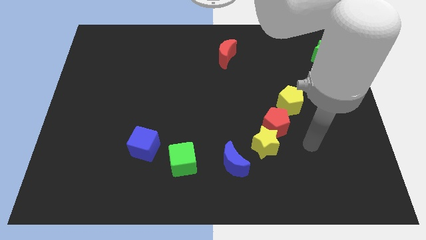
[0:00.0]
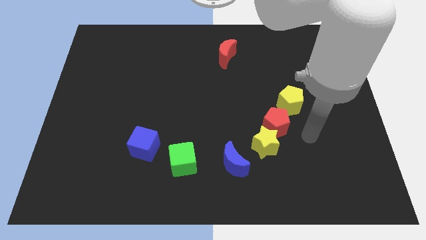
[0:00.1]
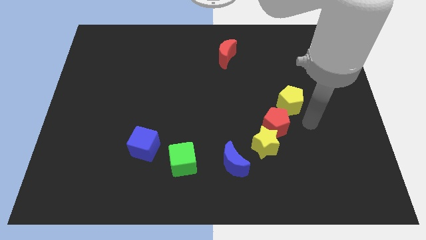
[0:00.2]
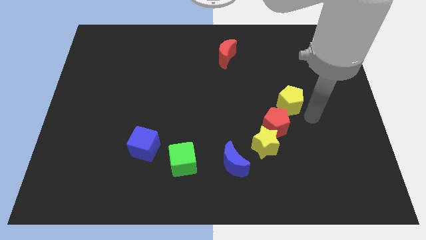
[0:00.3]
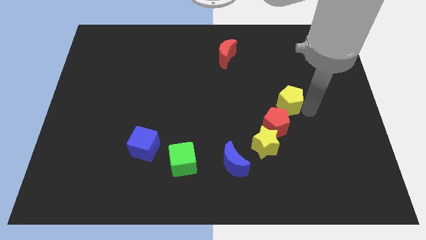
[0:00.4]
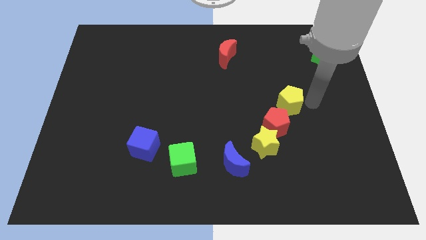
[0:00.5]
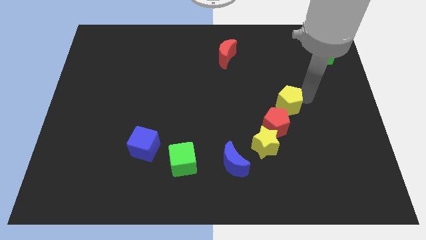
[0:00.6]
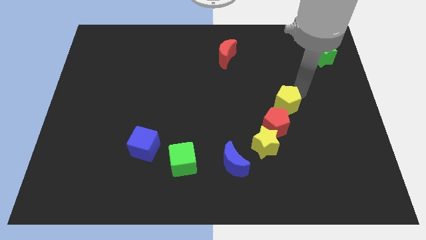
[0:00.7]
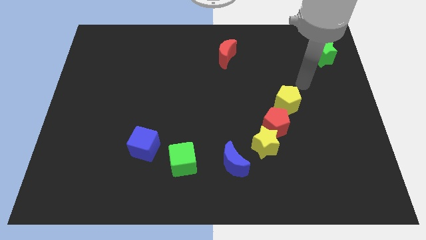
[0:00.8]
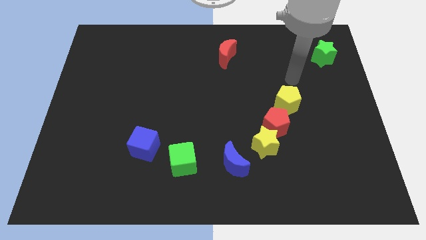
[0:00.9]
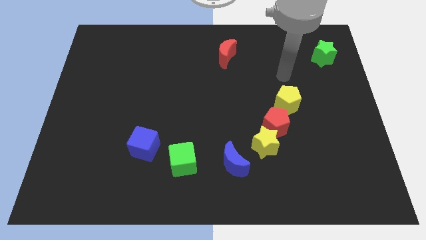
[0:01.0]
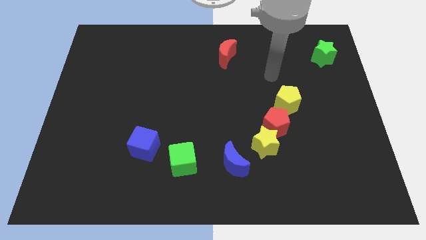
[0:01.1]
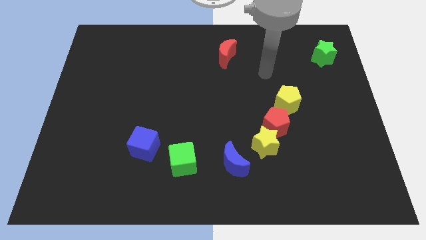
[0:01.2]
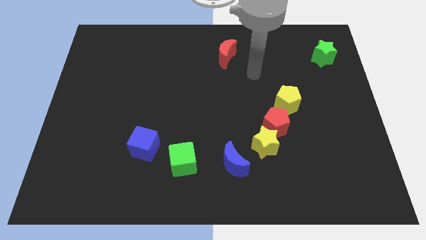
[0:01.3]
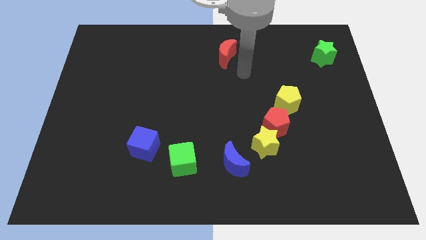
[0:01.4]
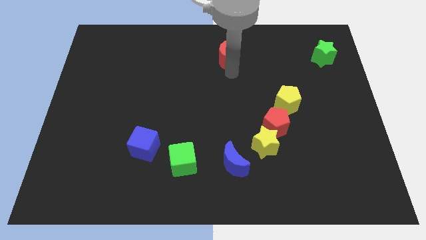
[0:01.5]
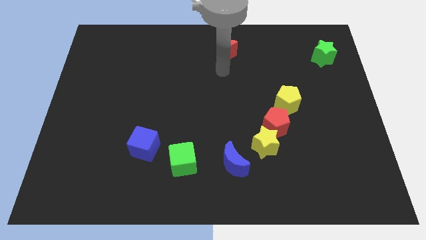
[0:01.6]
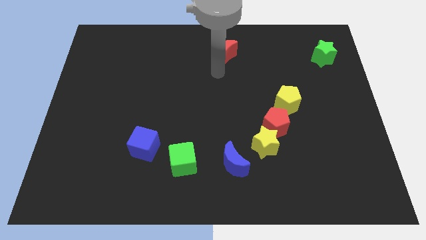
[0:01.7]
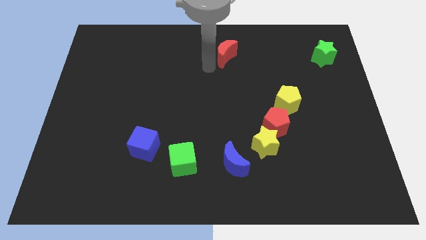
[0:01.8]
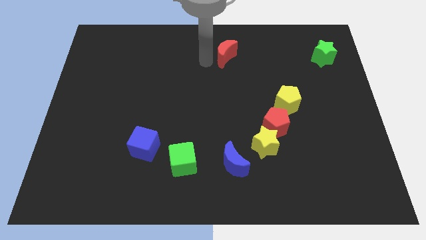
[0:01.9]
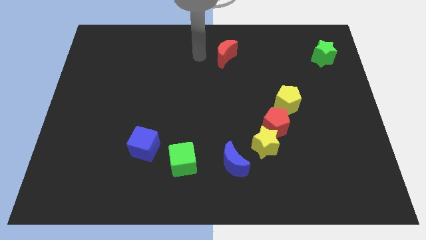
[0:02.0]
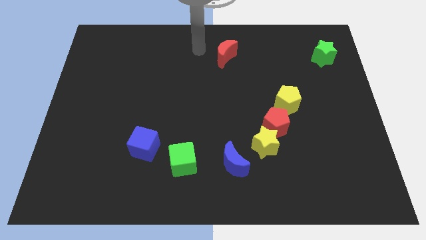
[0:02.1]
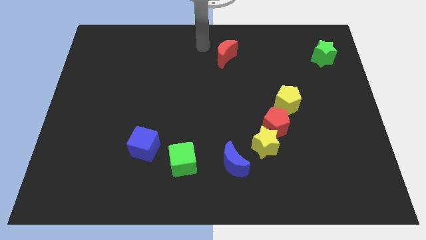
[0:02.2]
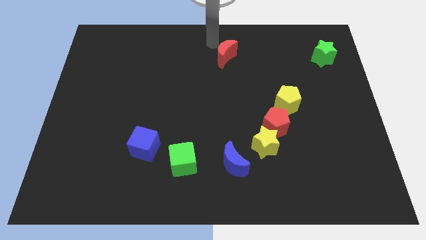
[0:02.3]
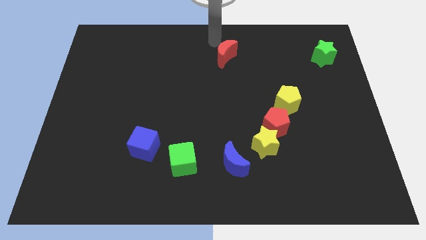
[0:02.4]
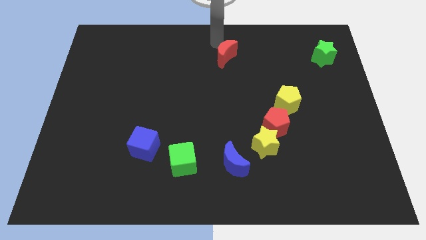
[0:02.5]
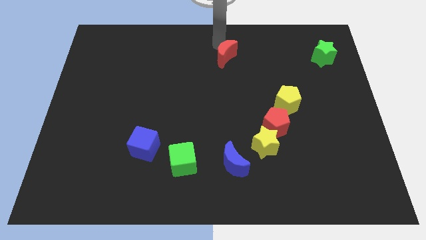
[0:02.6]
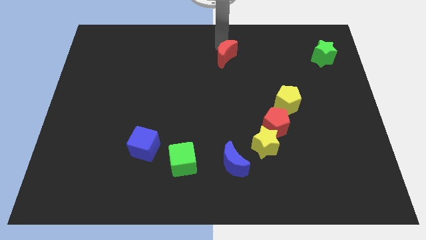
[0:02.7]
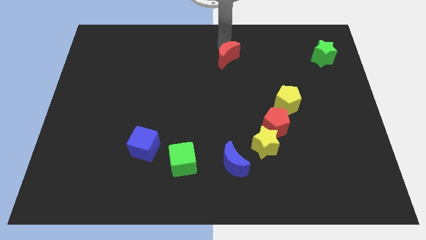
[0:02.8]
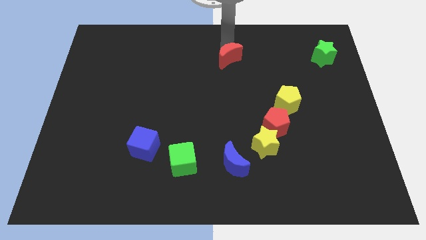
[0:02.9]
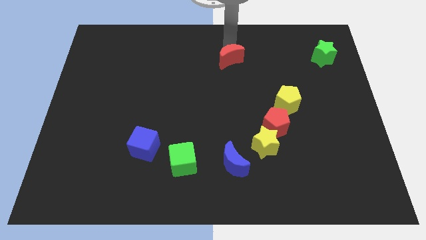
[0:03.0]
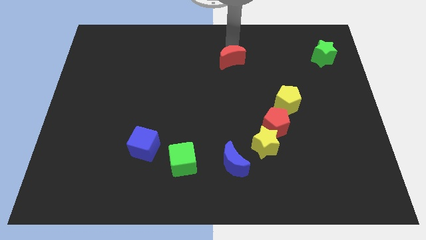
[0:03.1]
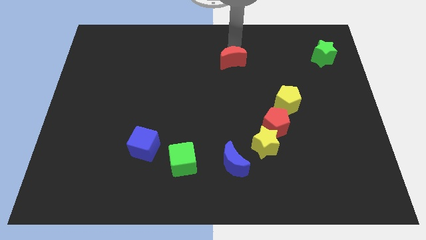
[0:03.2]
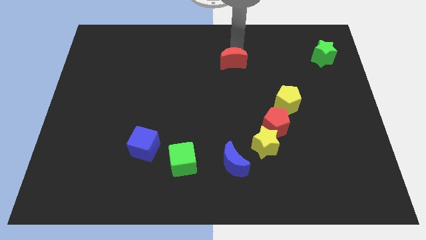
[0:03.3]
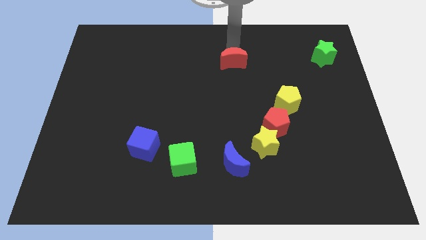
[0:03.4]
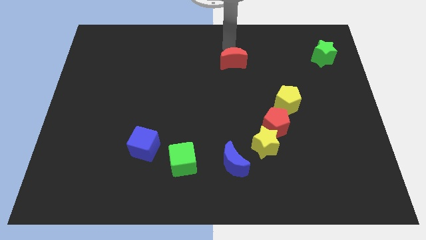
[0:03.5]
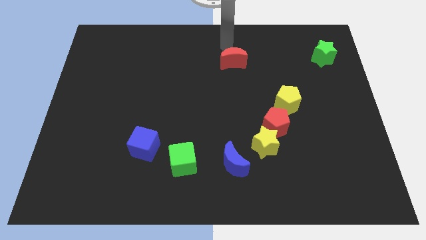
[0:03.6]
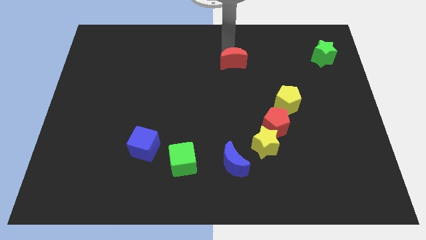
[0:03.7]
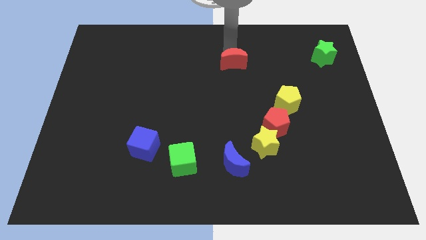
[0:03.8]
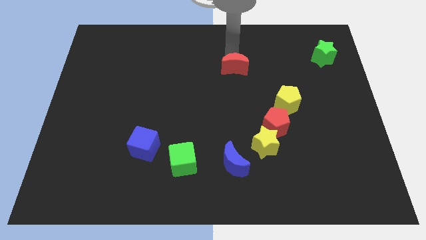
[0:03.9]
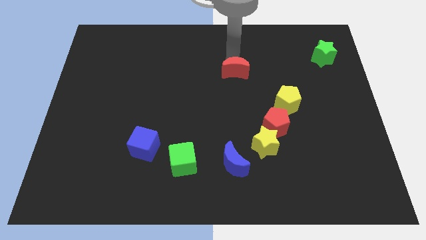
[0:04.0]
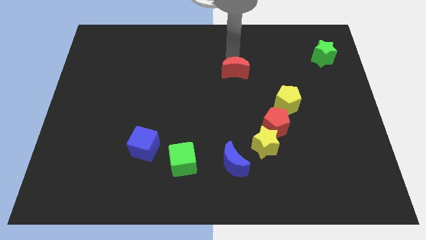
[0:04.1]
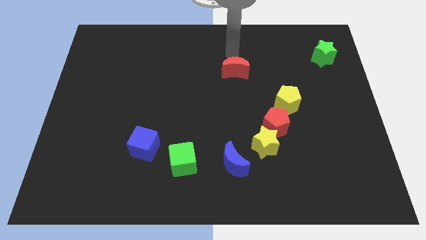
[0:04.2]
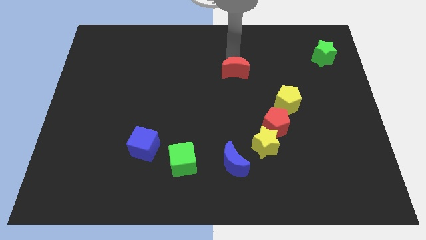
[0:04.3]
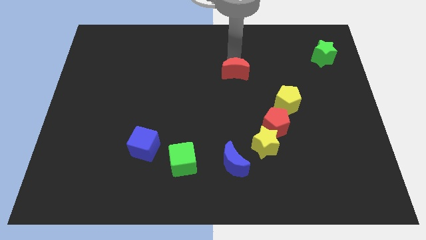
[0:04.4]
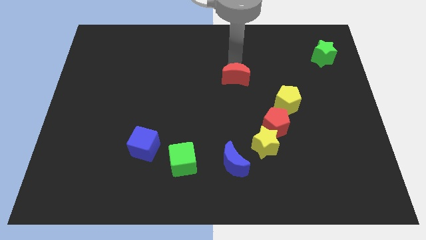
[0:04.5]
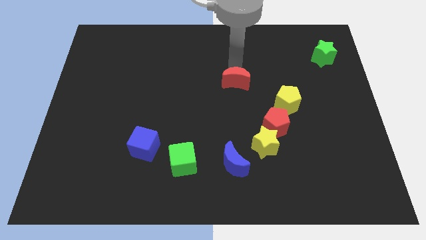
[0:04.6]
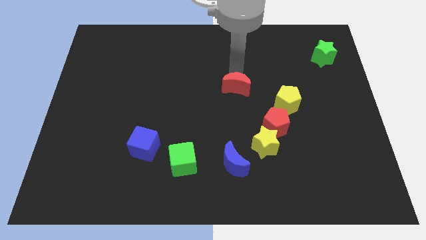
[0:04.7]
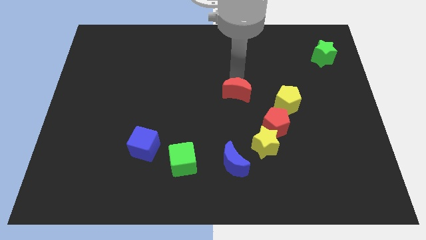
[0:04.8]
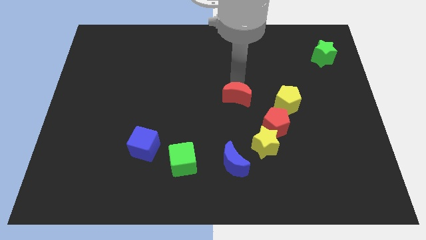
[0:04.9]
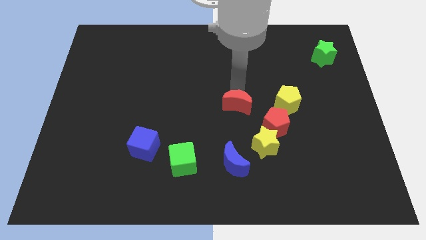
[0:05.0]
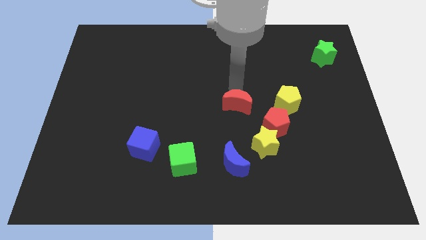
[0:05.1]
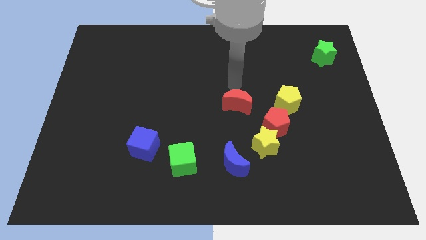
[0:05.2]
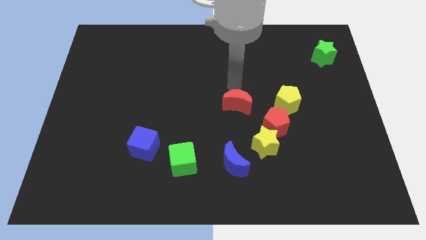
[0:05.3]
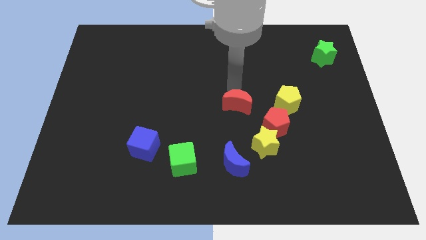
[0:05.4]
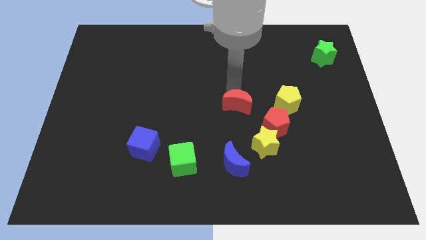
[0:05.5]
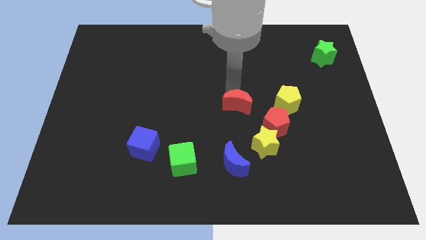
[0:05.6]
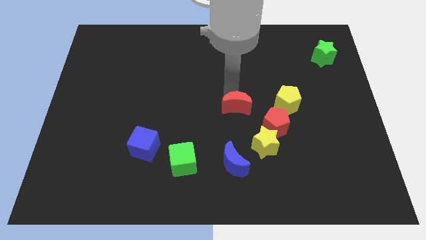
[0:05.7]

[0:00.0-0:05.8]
push the red moon to the top left of the yellow star

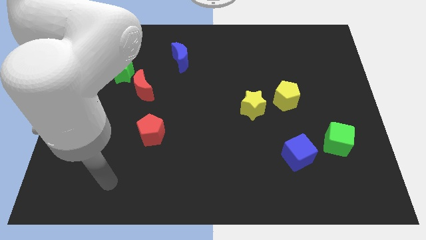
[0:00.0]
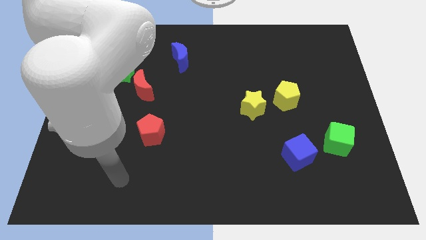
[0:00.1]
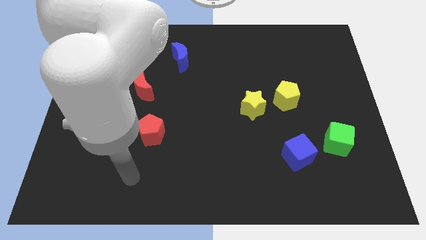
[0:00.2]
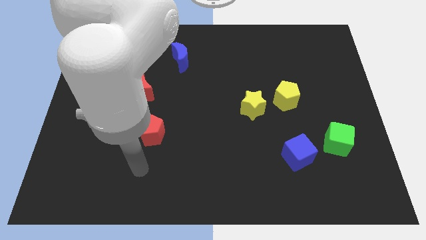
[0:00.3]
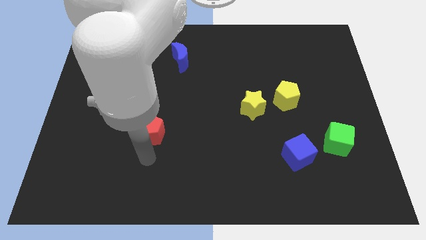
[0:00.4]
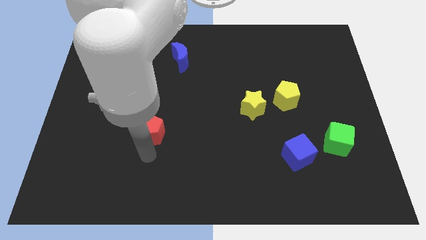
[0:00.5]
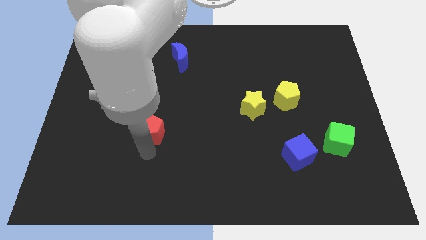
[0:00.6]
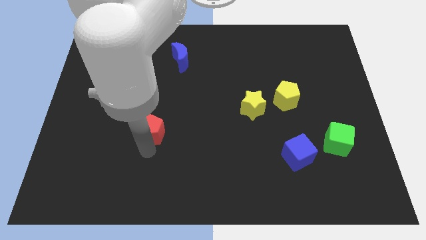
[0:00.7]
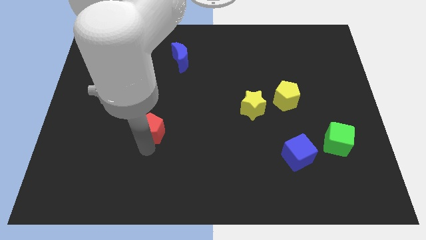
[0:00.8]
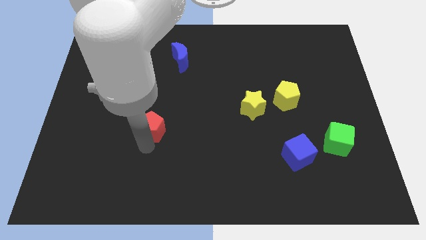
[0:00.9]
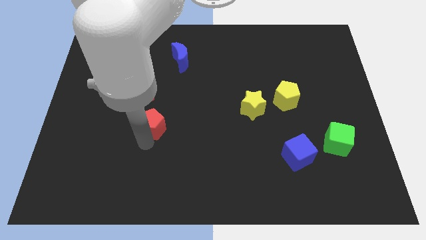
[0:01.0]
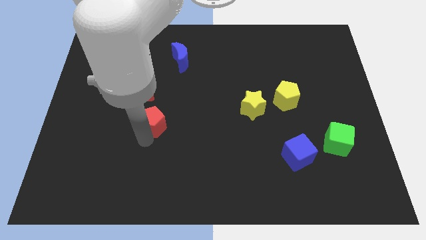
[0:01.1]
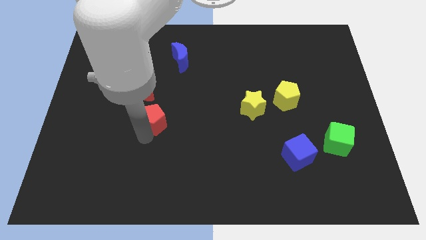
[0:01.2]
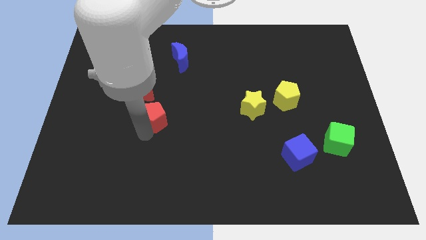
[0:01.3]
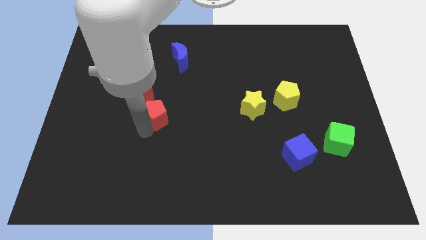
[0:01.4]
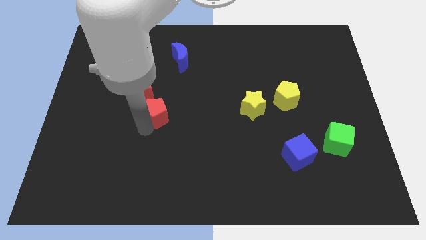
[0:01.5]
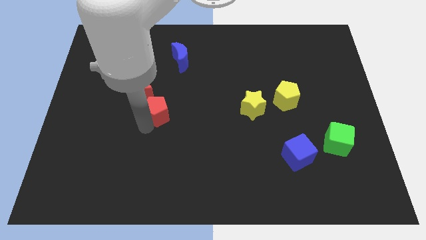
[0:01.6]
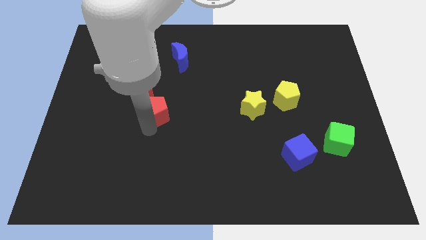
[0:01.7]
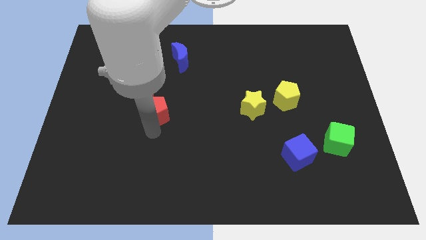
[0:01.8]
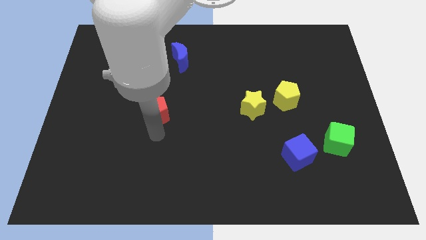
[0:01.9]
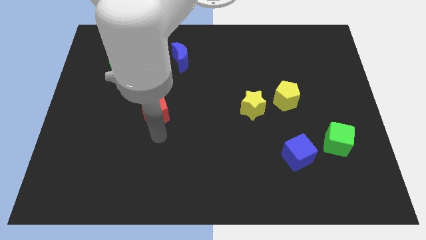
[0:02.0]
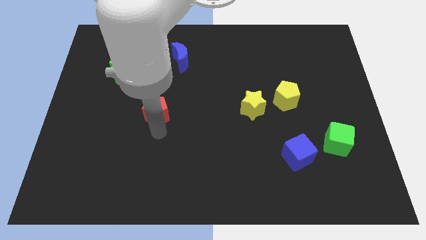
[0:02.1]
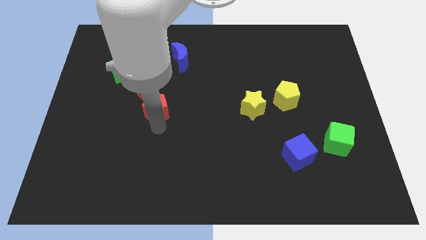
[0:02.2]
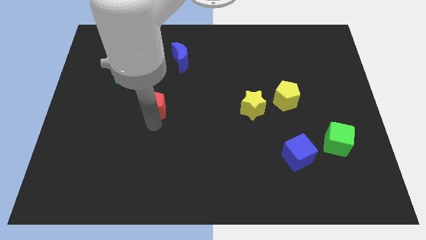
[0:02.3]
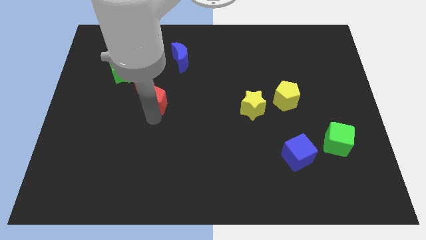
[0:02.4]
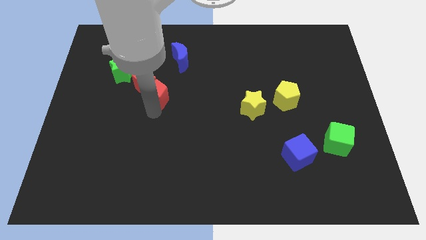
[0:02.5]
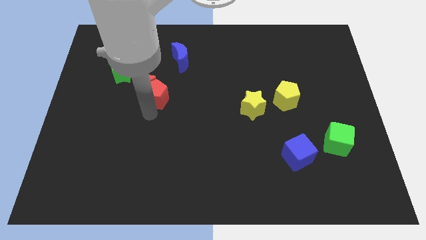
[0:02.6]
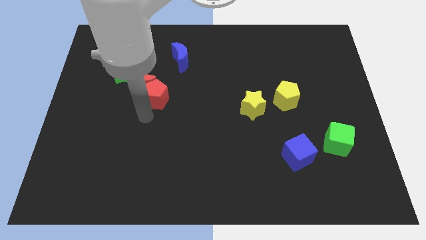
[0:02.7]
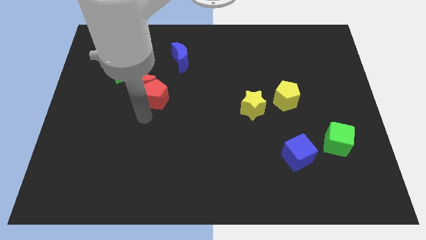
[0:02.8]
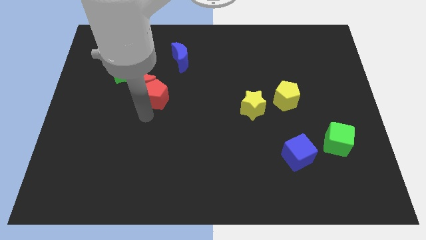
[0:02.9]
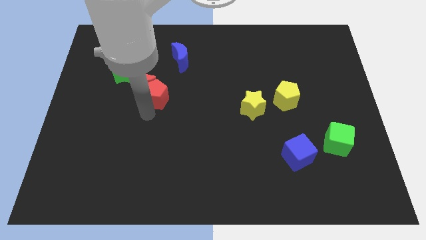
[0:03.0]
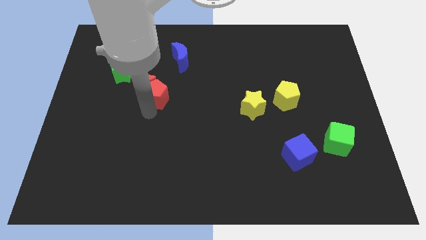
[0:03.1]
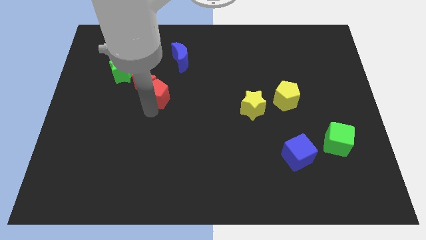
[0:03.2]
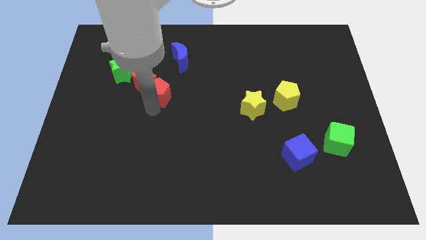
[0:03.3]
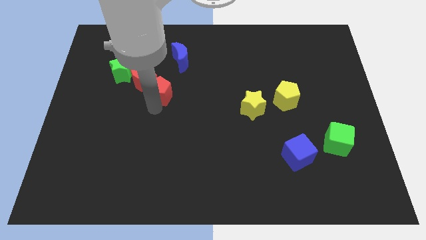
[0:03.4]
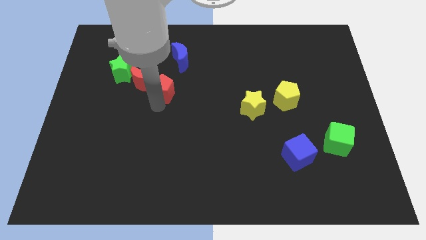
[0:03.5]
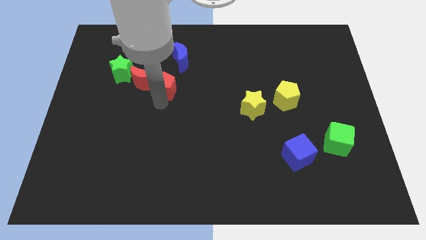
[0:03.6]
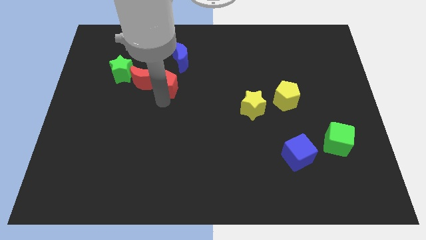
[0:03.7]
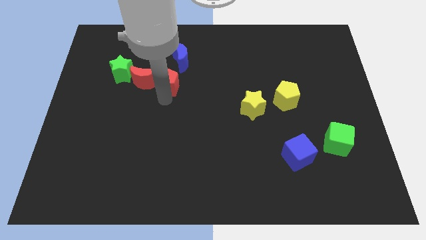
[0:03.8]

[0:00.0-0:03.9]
push the red pentagon to the top right of the red moon
